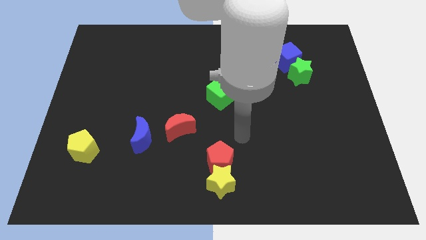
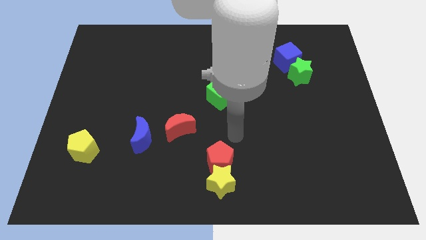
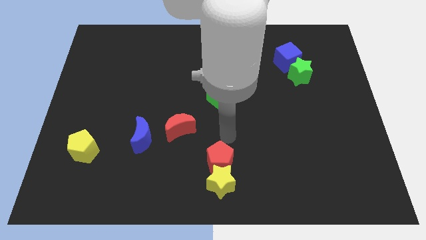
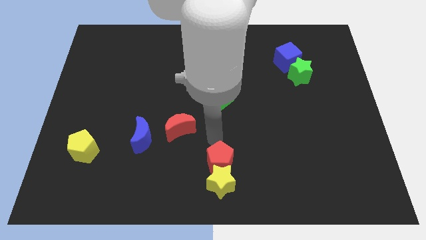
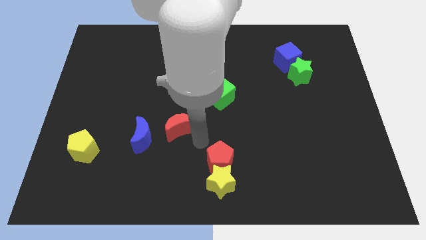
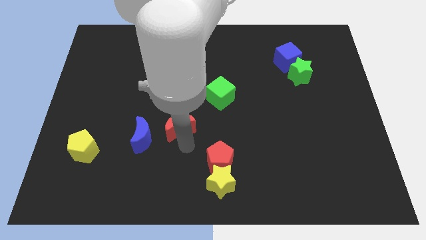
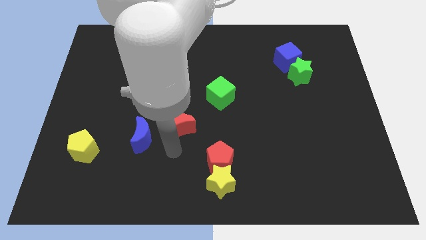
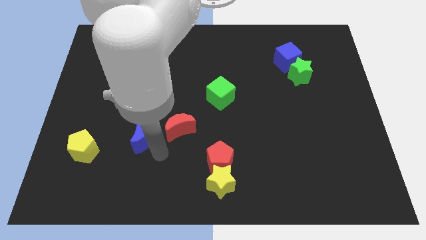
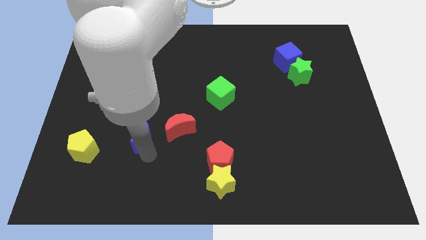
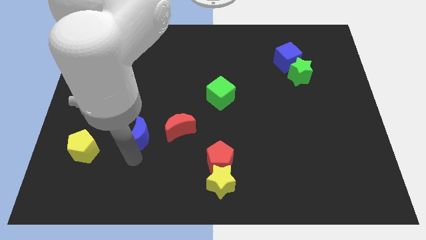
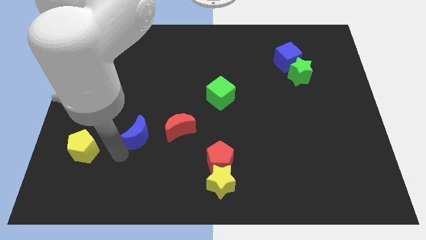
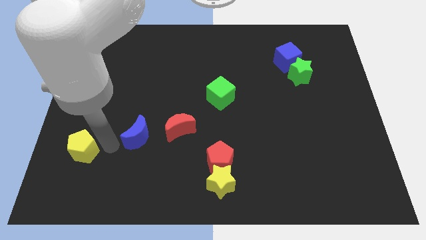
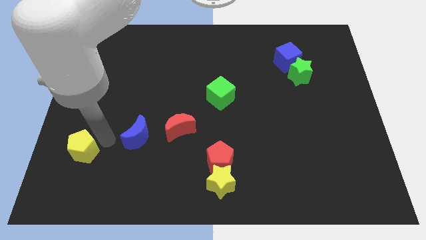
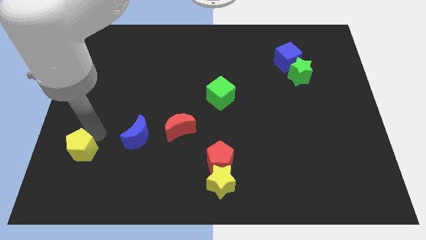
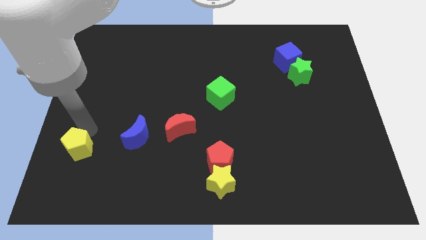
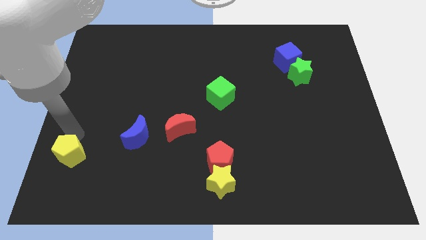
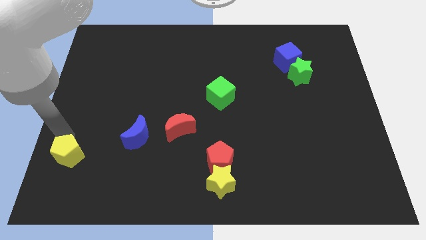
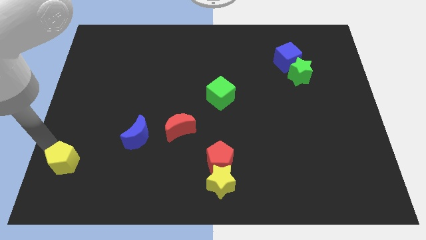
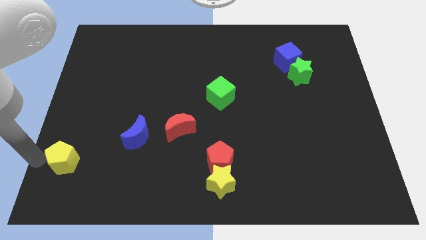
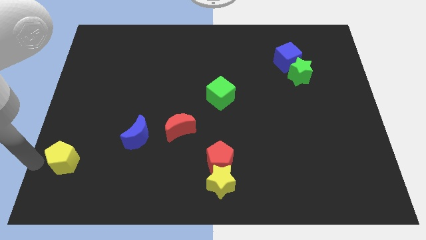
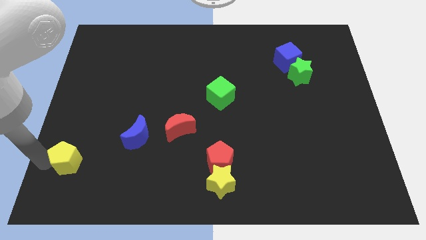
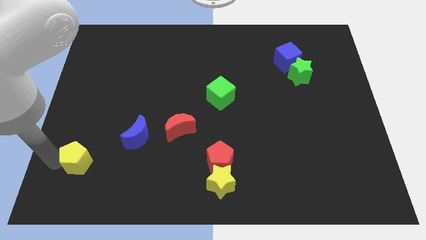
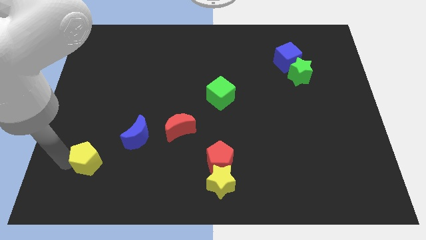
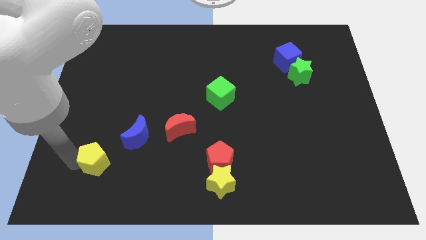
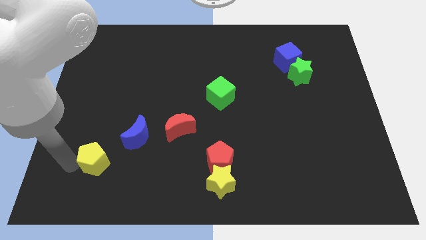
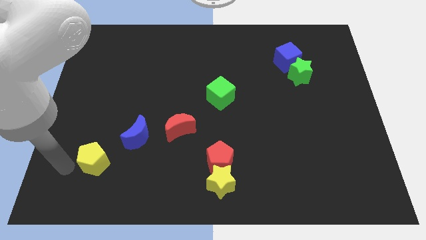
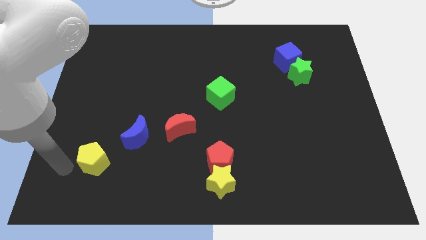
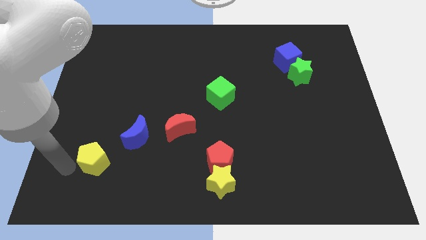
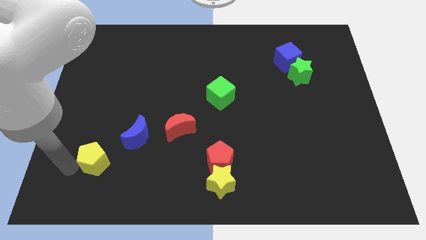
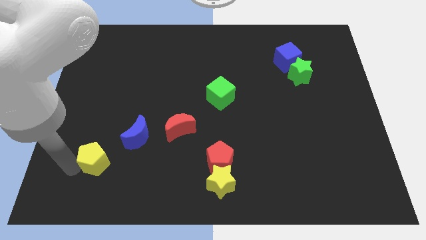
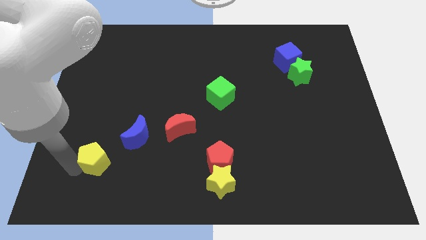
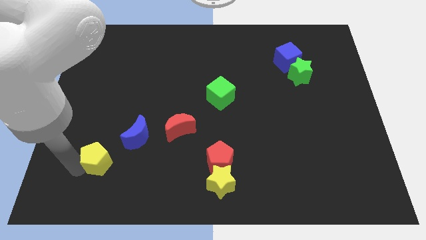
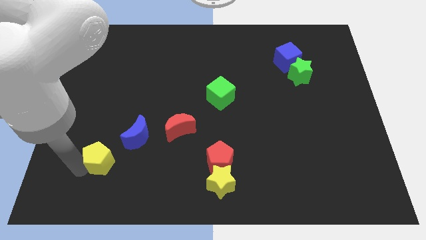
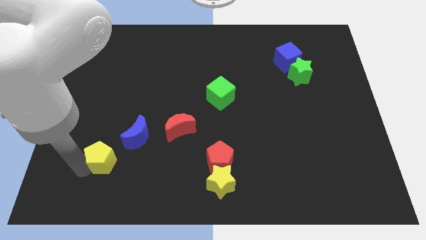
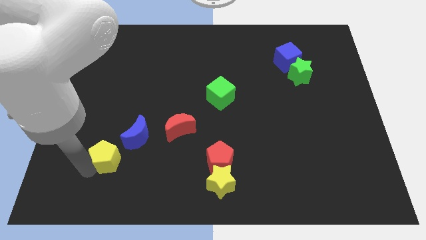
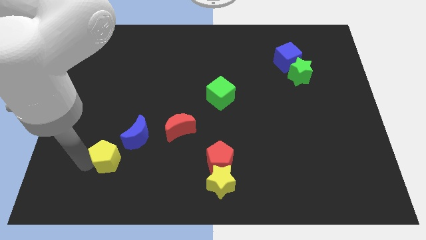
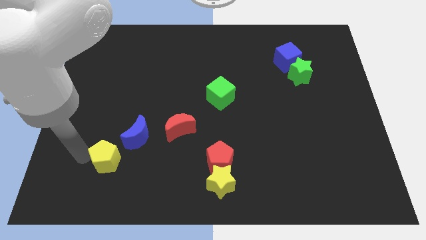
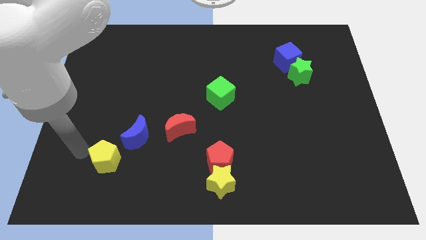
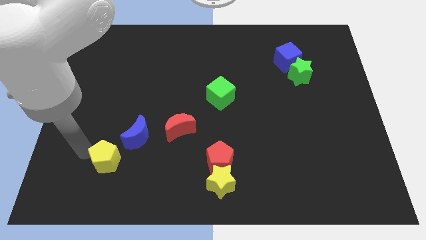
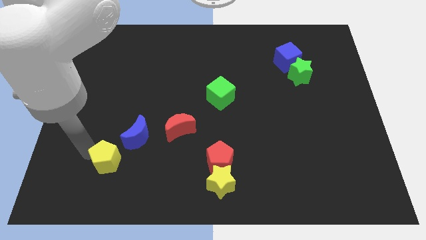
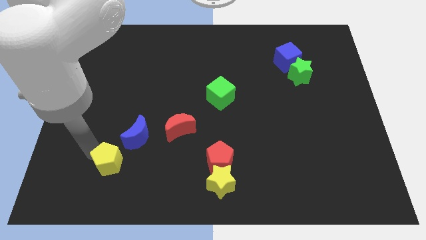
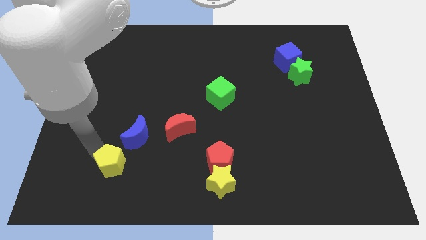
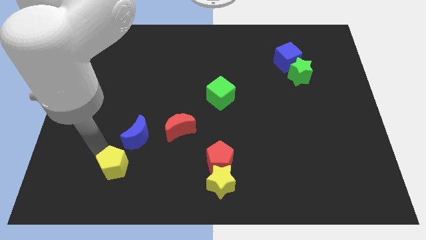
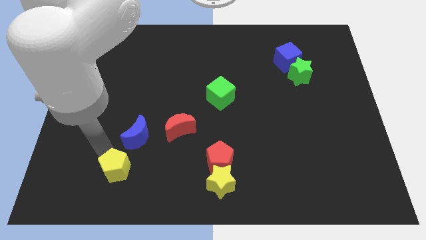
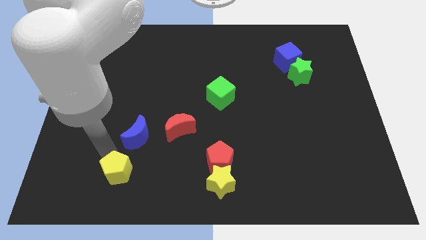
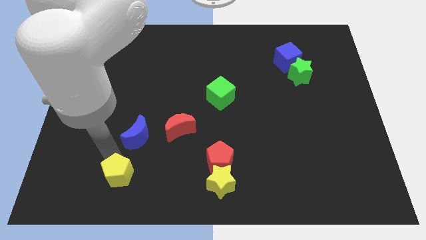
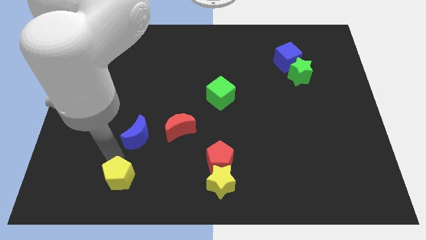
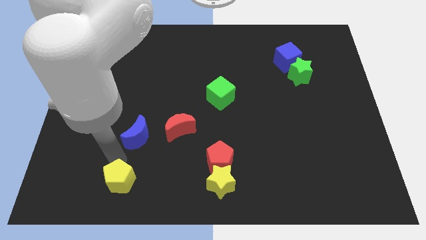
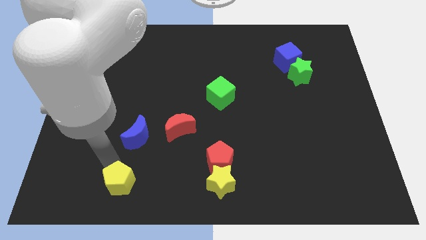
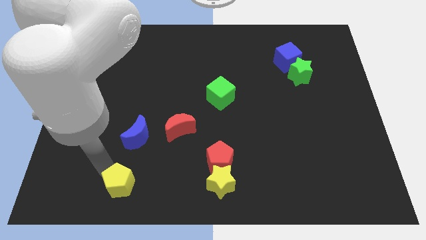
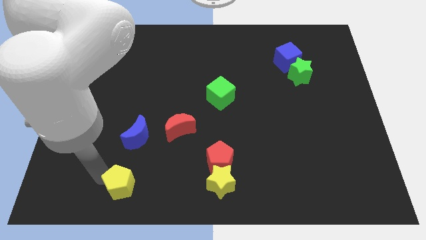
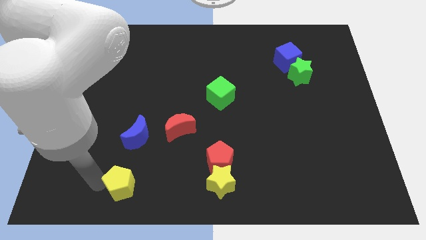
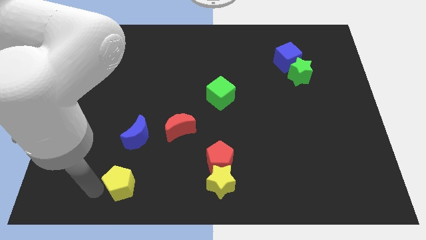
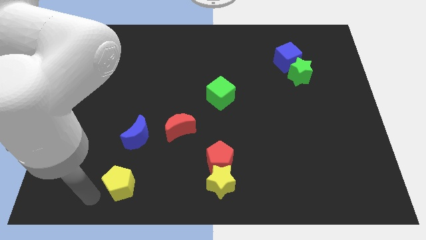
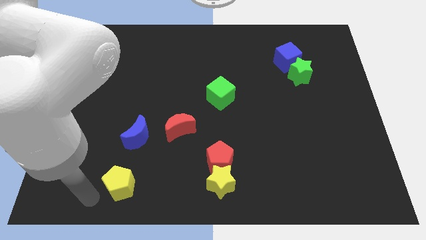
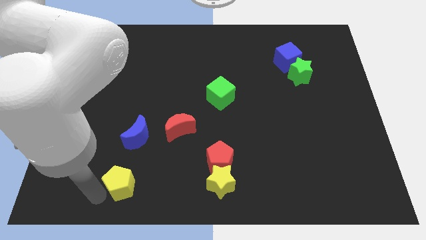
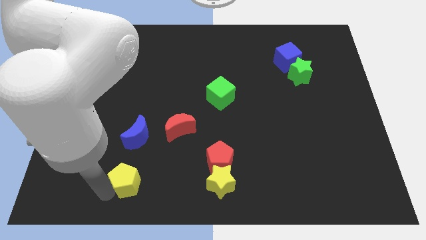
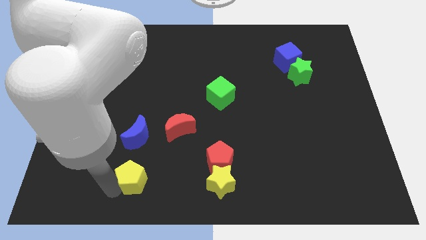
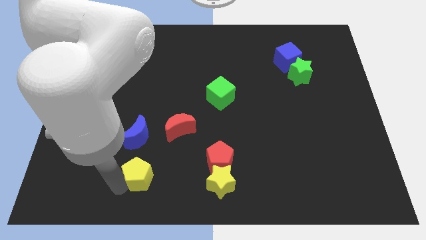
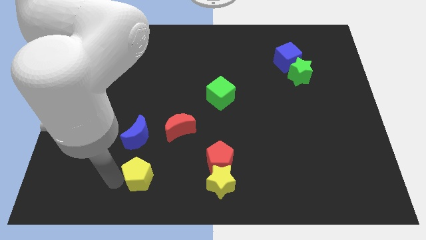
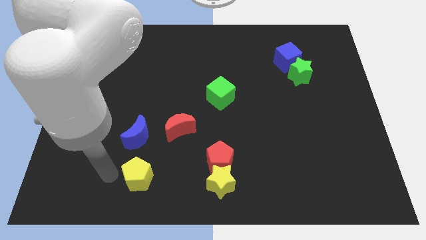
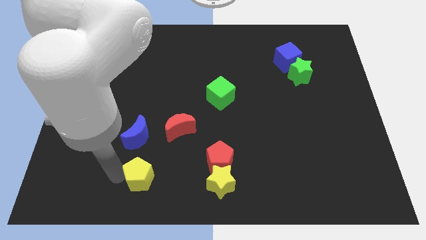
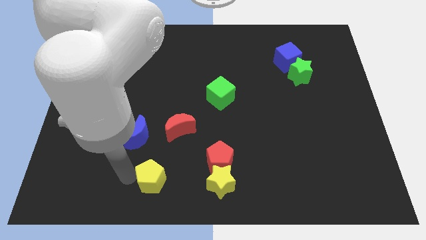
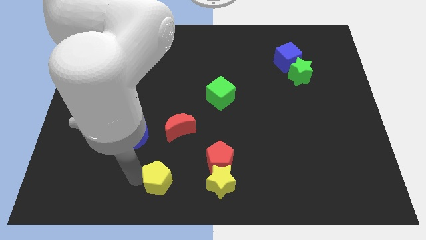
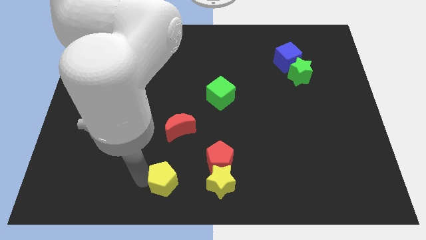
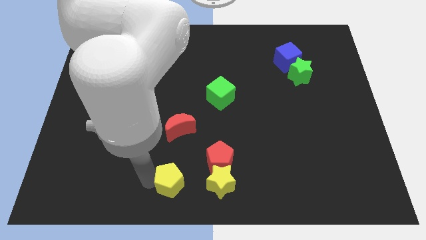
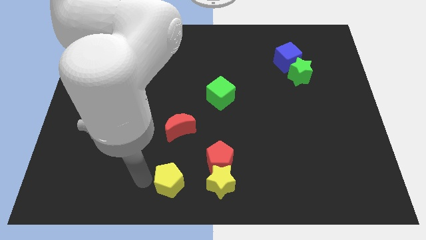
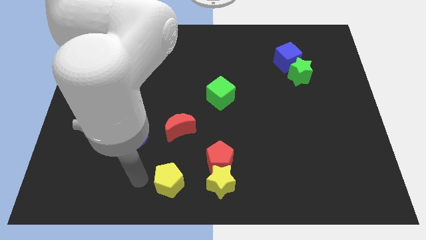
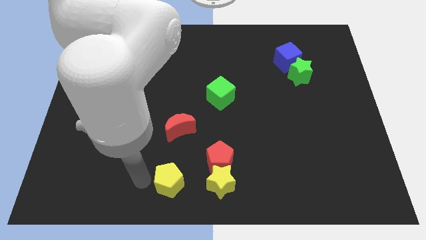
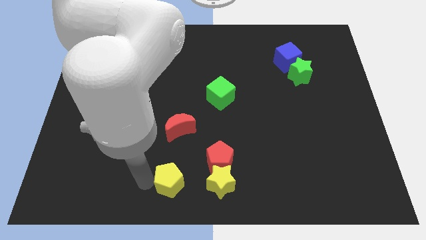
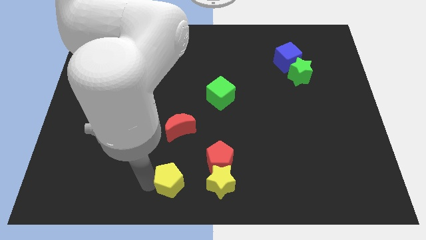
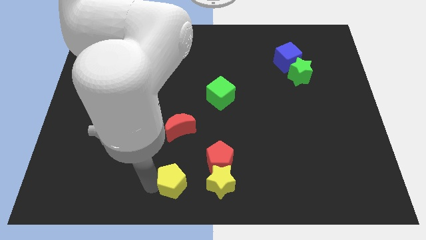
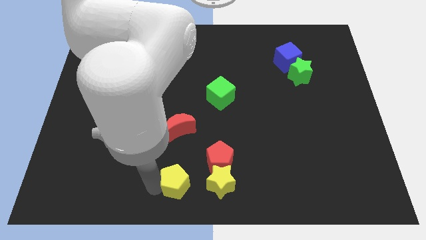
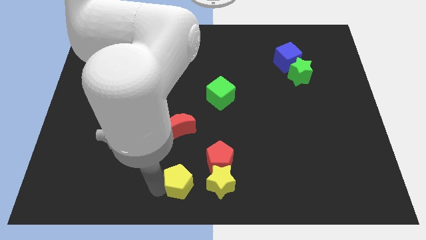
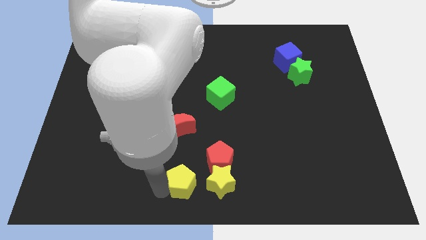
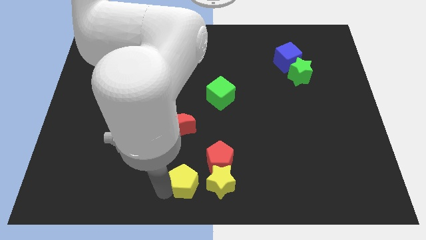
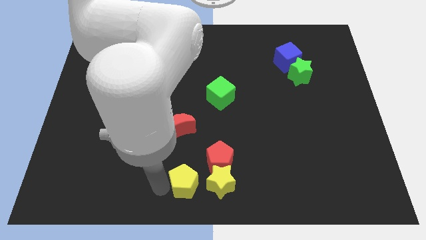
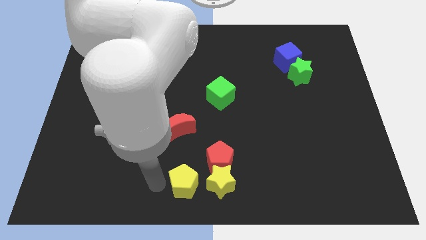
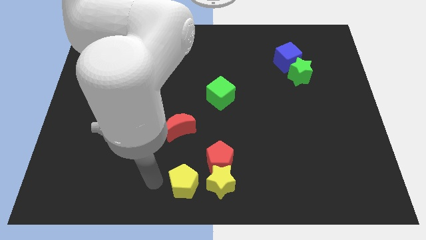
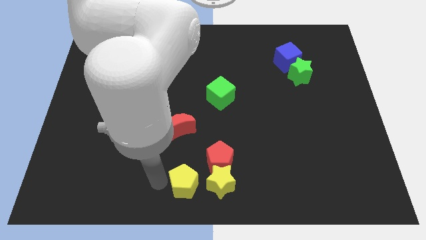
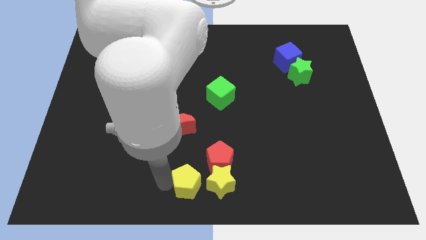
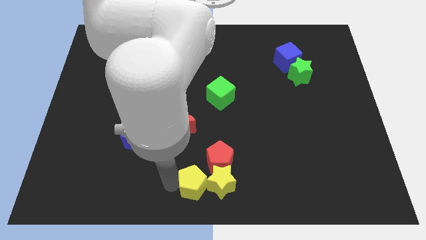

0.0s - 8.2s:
push the yellow pentagon close to the yellow star

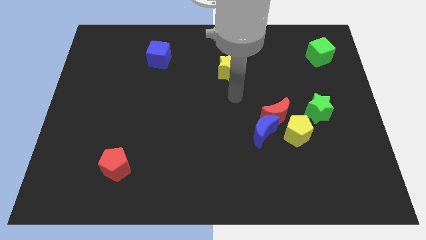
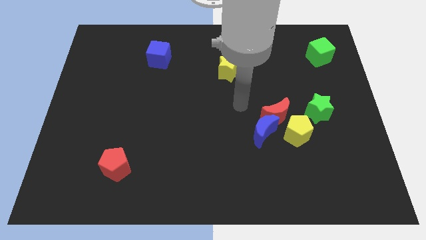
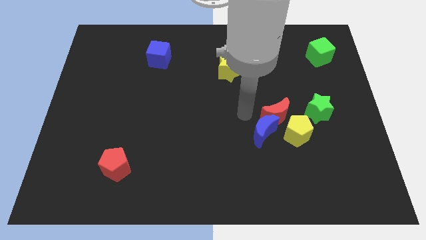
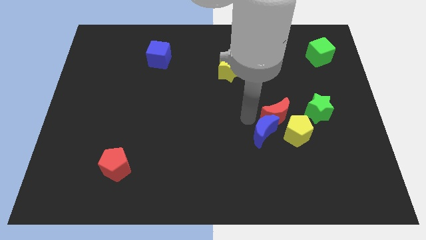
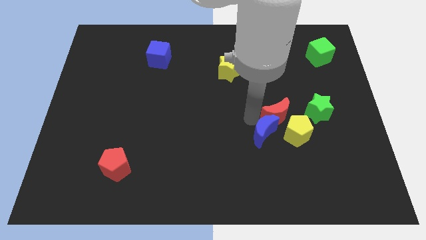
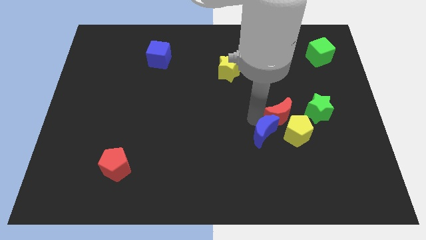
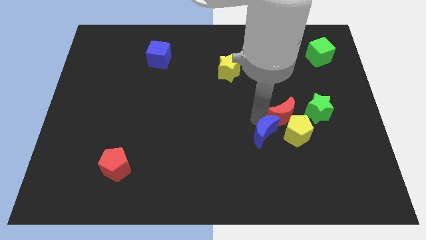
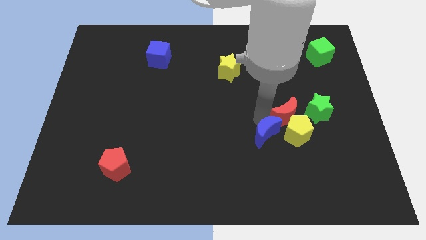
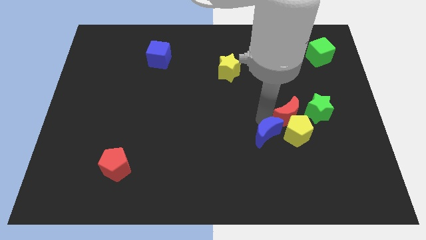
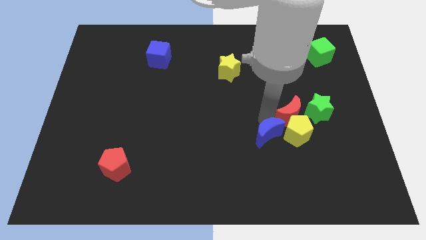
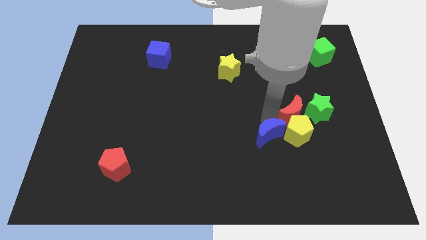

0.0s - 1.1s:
put the red moon towards the green star
